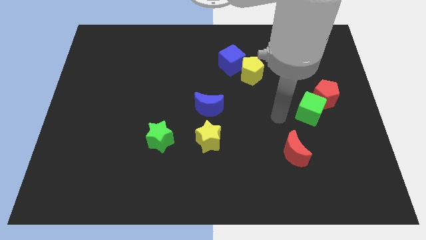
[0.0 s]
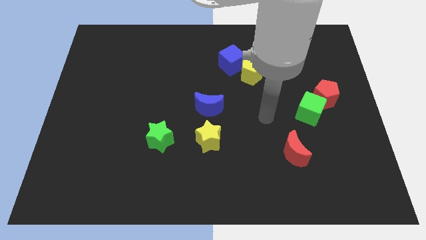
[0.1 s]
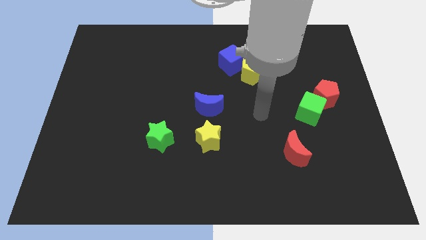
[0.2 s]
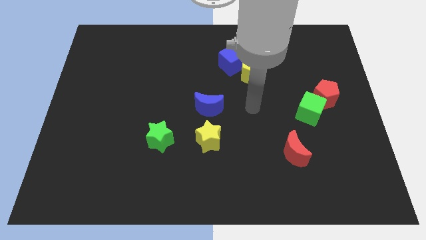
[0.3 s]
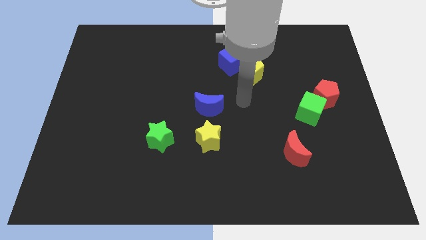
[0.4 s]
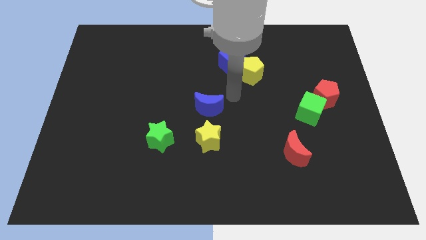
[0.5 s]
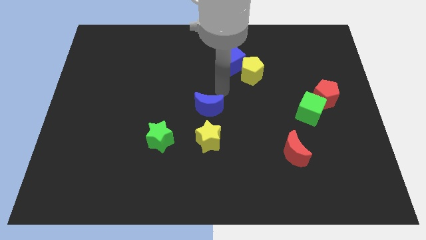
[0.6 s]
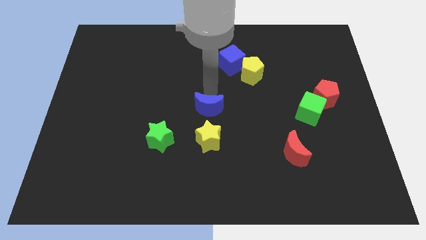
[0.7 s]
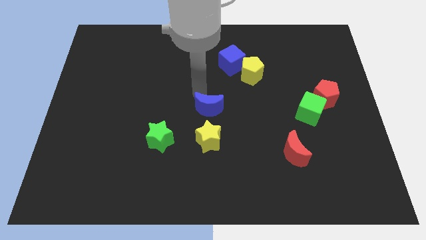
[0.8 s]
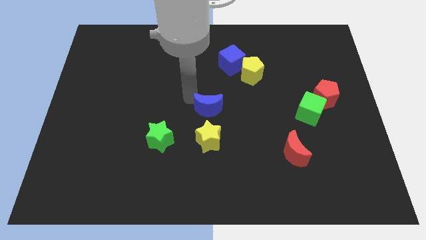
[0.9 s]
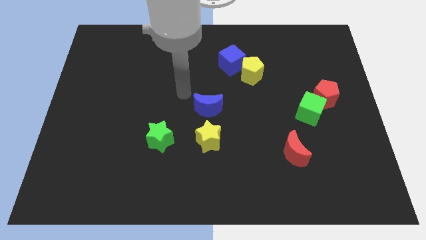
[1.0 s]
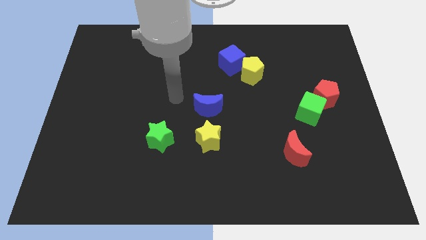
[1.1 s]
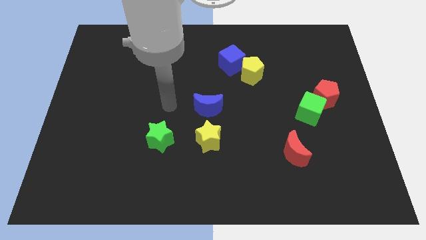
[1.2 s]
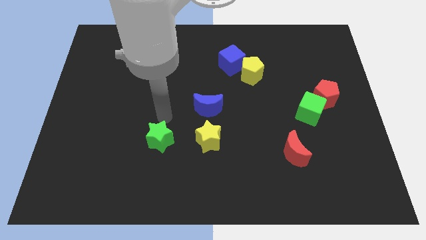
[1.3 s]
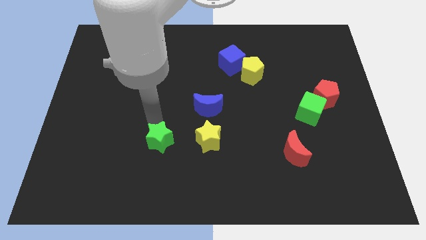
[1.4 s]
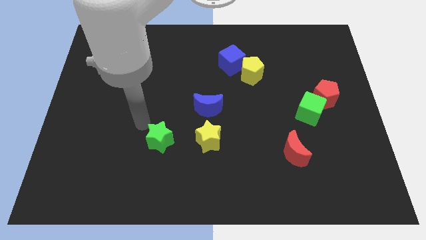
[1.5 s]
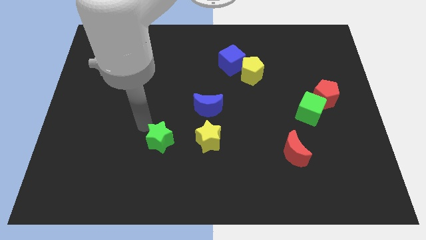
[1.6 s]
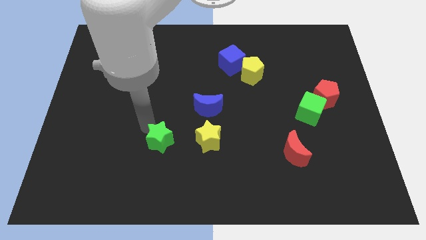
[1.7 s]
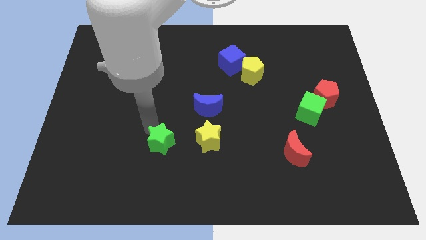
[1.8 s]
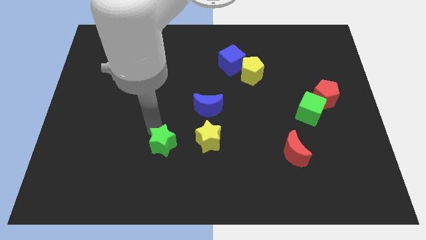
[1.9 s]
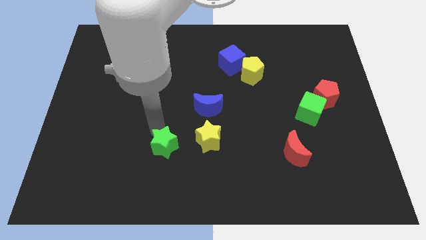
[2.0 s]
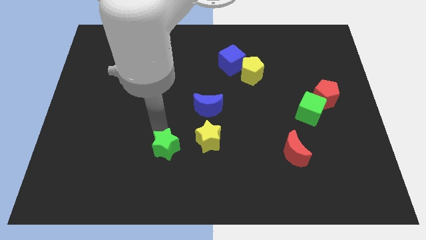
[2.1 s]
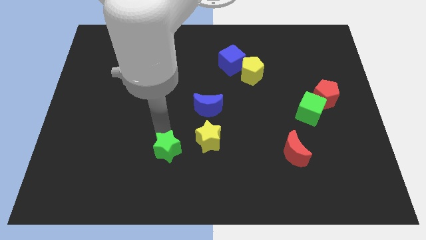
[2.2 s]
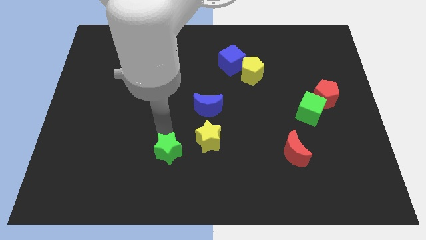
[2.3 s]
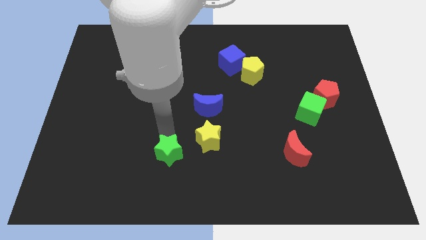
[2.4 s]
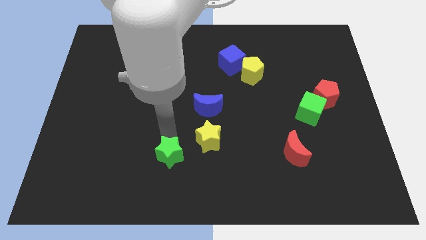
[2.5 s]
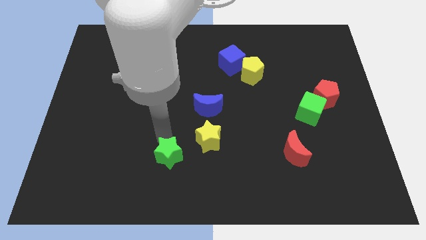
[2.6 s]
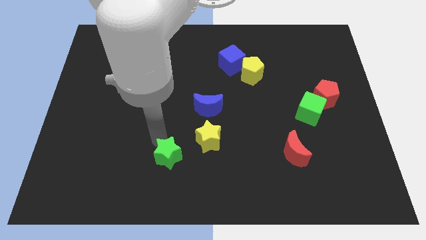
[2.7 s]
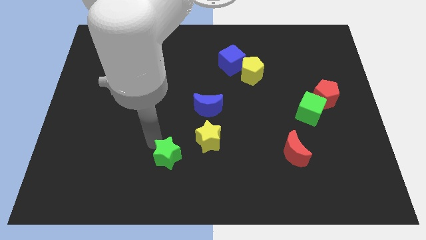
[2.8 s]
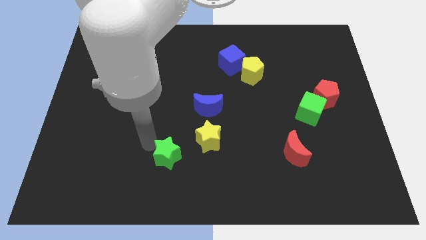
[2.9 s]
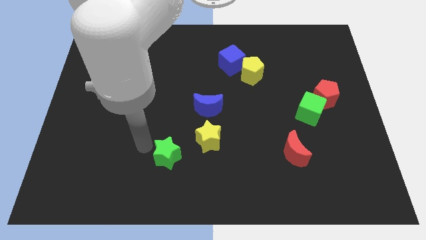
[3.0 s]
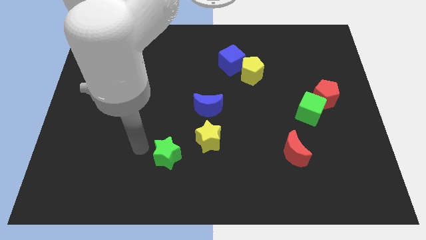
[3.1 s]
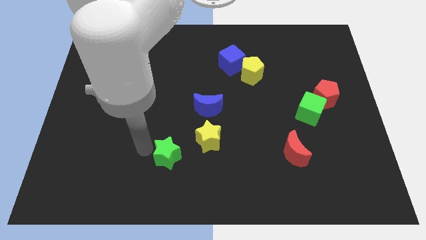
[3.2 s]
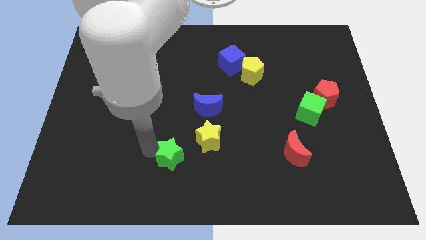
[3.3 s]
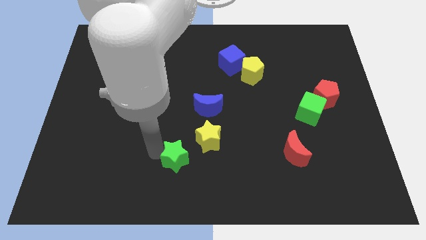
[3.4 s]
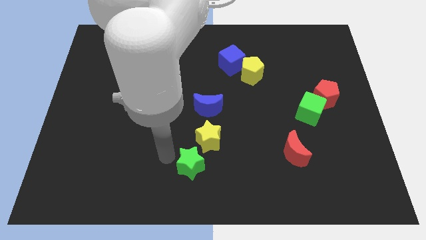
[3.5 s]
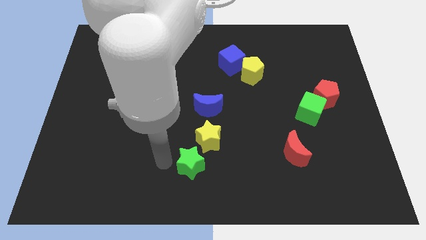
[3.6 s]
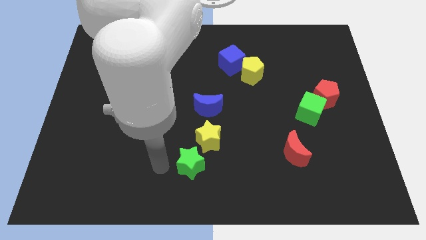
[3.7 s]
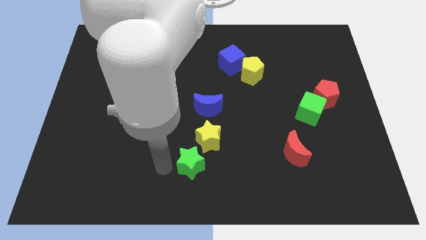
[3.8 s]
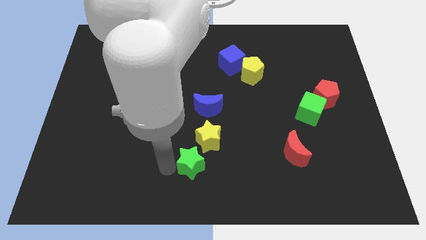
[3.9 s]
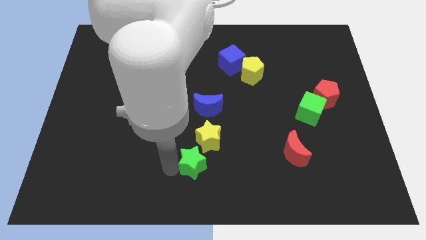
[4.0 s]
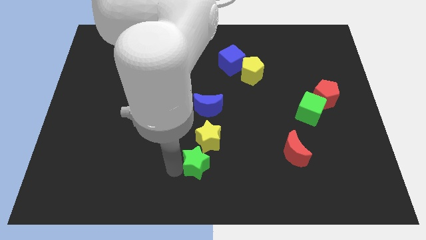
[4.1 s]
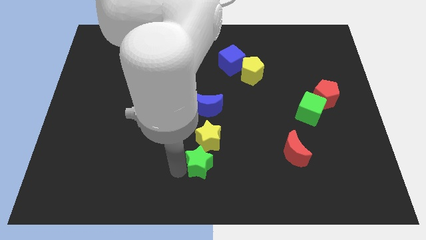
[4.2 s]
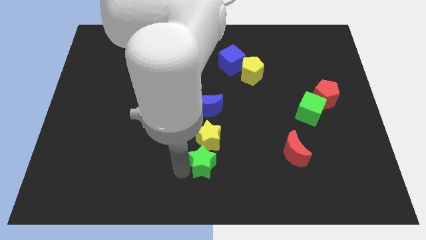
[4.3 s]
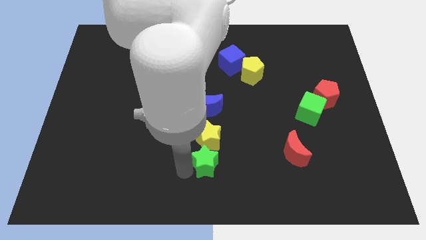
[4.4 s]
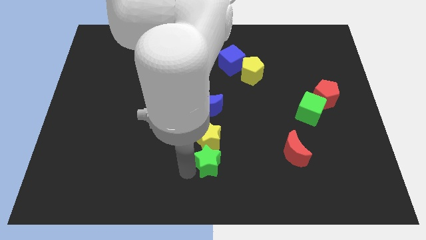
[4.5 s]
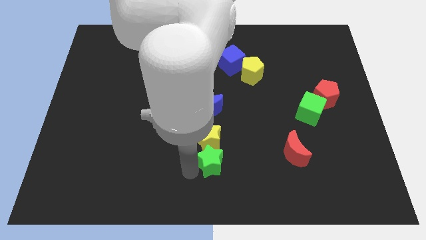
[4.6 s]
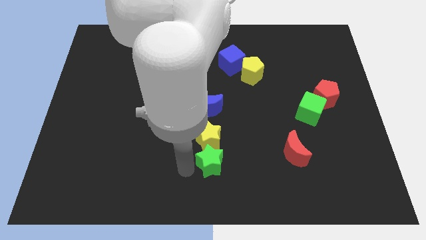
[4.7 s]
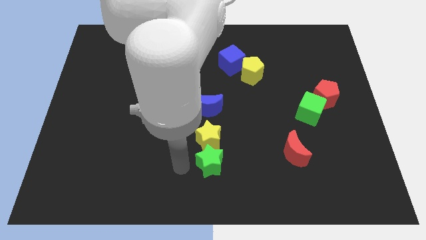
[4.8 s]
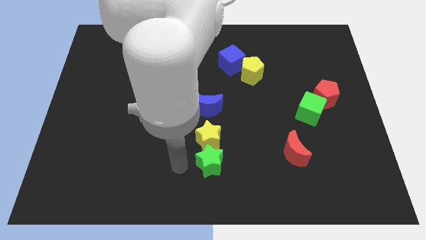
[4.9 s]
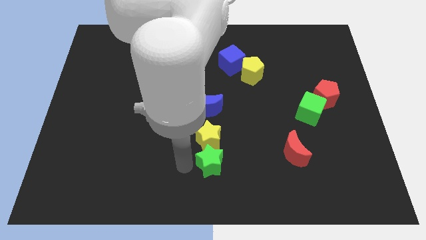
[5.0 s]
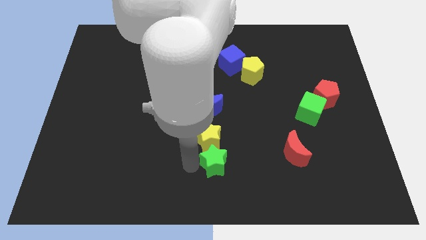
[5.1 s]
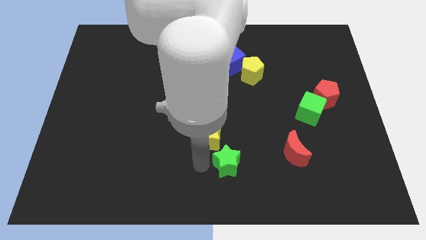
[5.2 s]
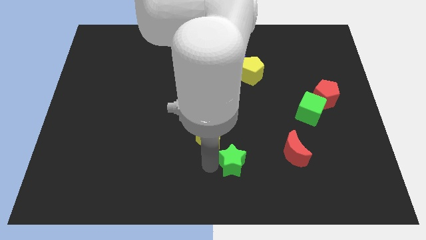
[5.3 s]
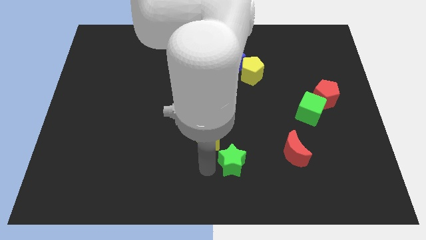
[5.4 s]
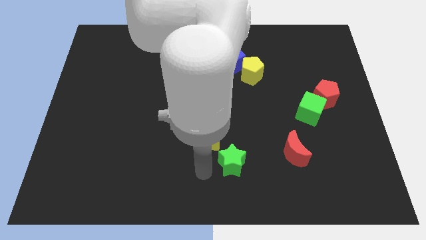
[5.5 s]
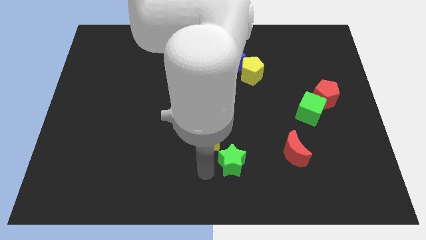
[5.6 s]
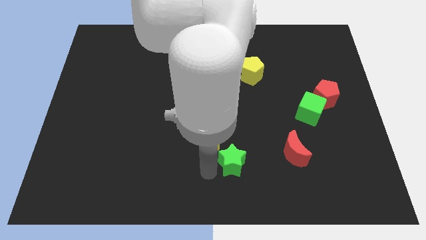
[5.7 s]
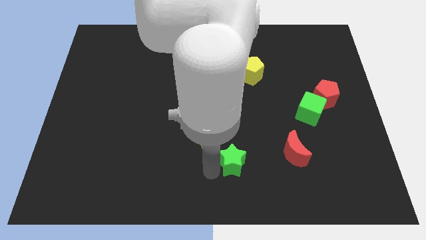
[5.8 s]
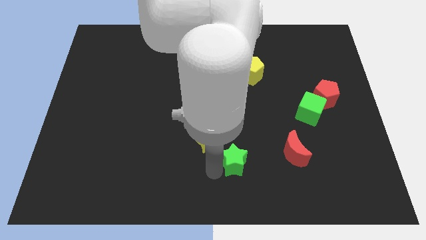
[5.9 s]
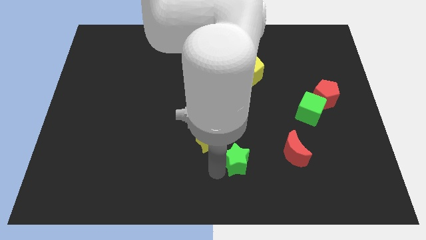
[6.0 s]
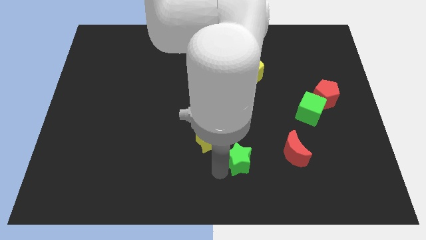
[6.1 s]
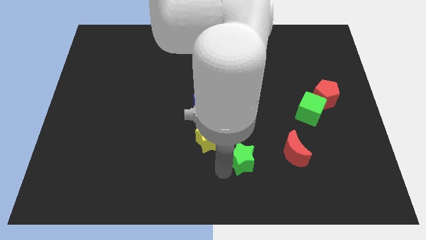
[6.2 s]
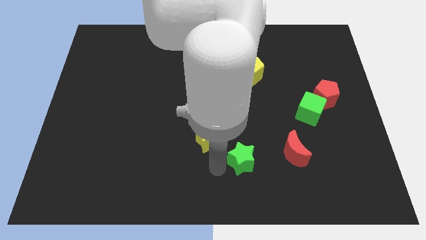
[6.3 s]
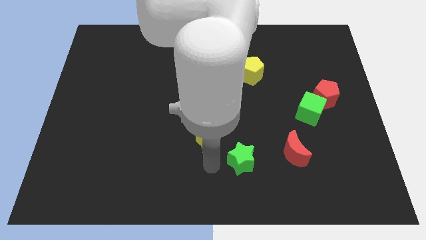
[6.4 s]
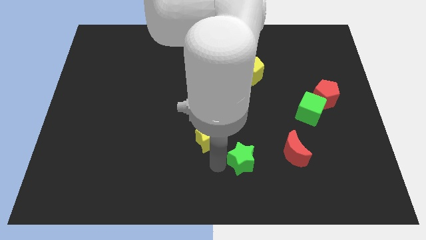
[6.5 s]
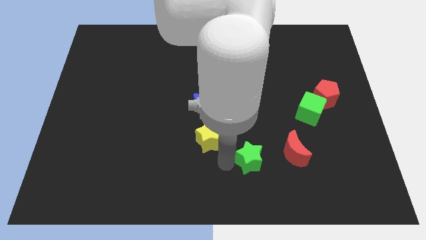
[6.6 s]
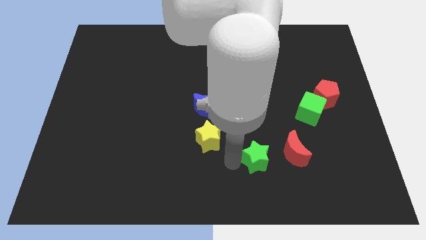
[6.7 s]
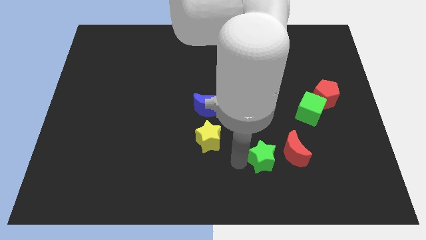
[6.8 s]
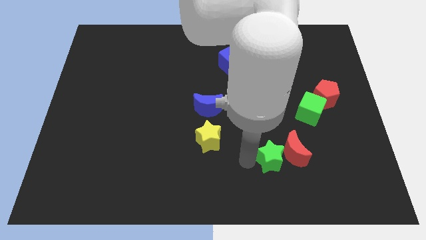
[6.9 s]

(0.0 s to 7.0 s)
push the green star close to the red moon
